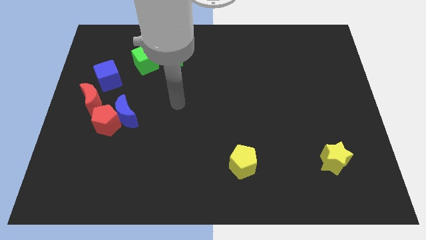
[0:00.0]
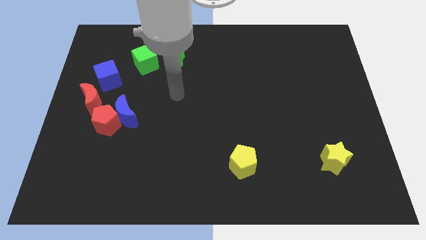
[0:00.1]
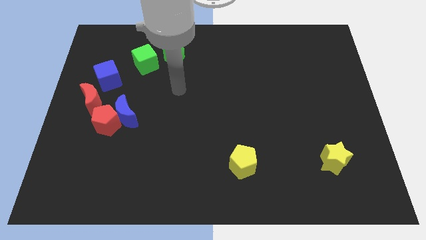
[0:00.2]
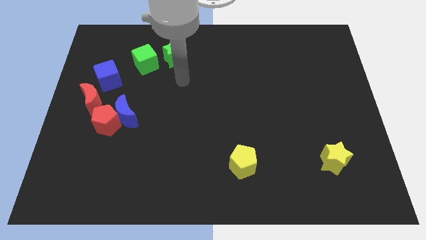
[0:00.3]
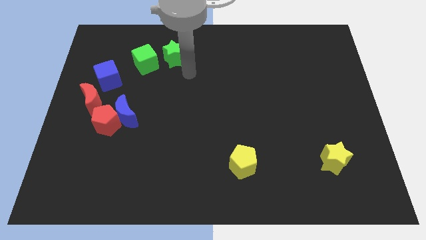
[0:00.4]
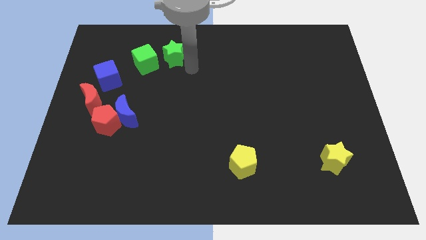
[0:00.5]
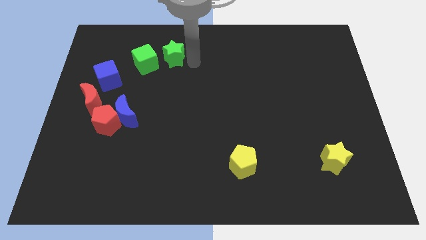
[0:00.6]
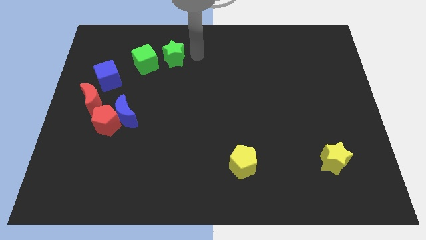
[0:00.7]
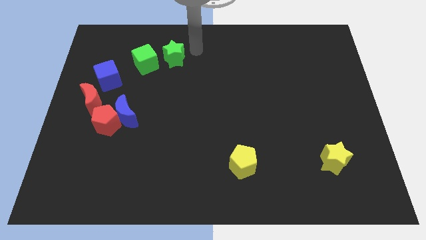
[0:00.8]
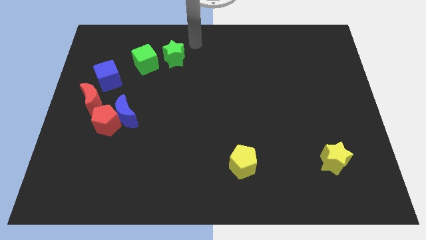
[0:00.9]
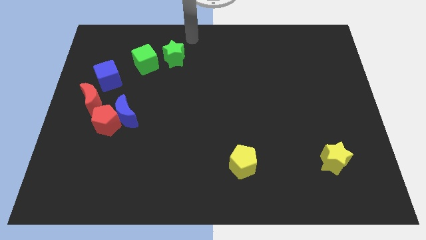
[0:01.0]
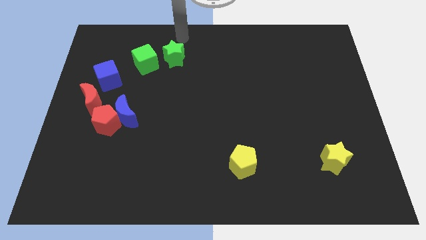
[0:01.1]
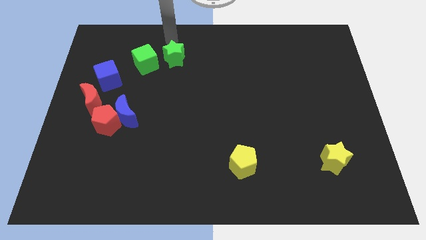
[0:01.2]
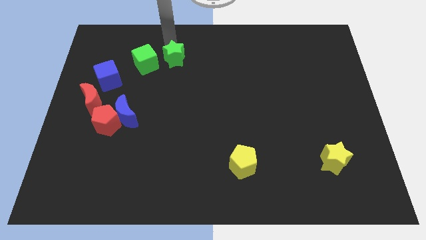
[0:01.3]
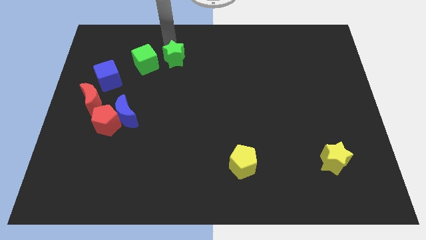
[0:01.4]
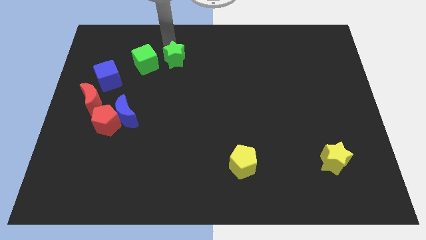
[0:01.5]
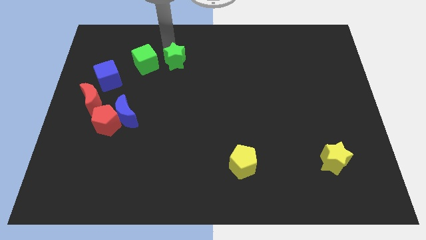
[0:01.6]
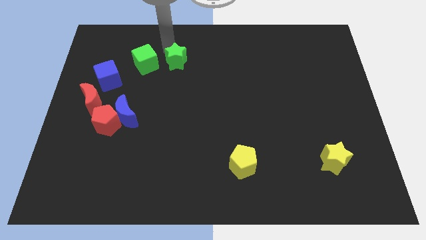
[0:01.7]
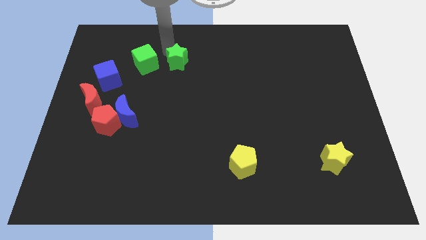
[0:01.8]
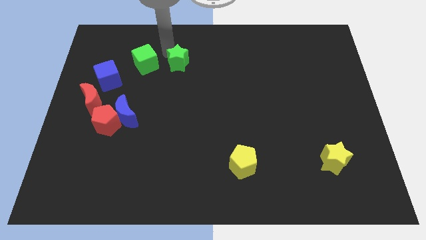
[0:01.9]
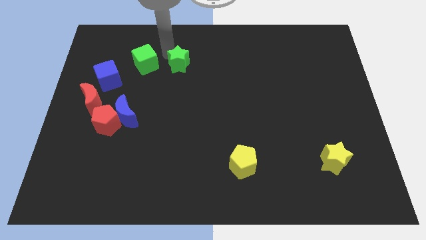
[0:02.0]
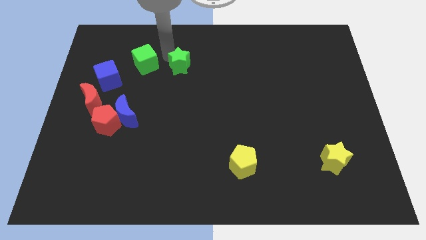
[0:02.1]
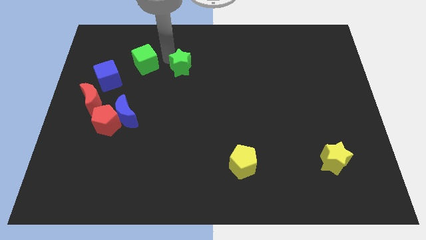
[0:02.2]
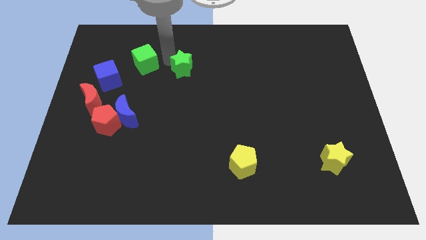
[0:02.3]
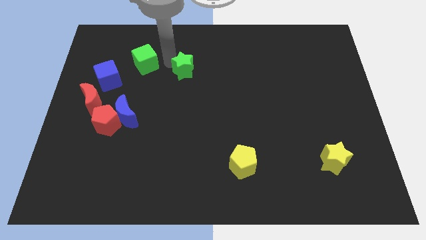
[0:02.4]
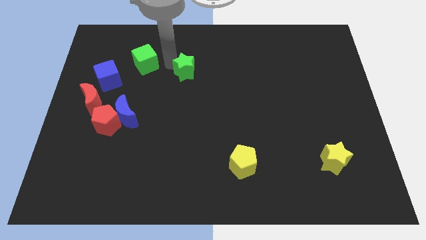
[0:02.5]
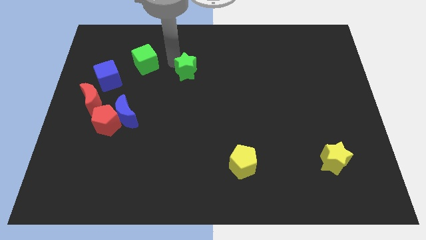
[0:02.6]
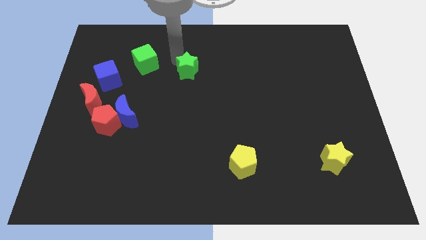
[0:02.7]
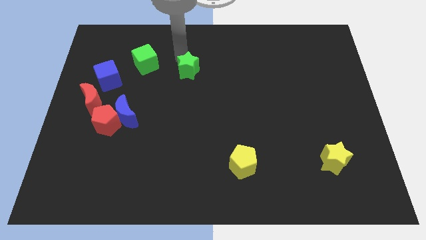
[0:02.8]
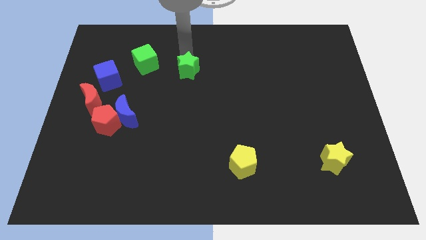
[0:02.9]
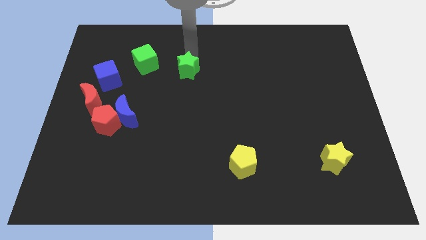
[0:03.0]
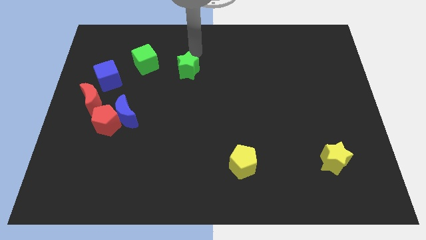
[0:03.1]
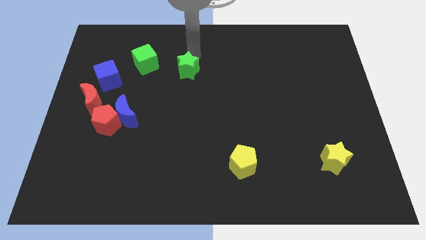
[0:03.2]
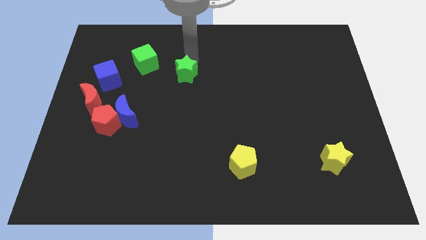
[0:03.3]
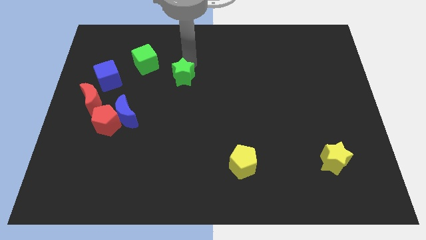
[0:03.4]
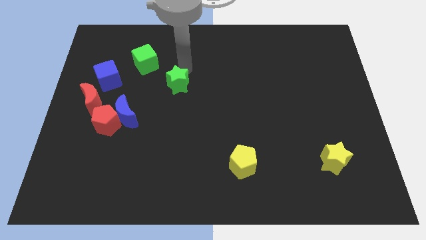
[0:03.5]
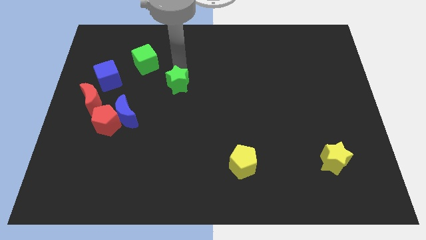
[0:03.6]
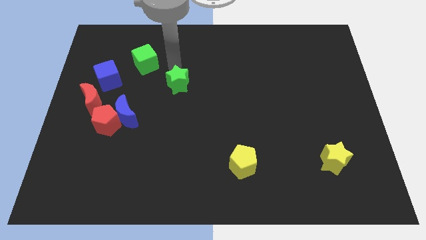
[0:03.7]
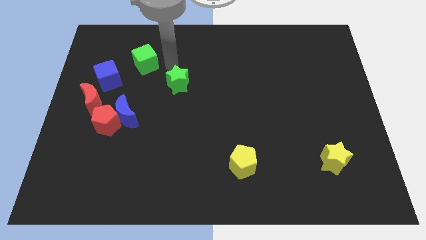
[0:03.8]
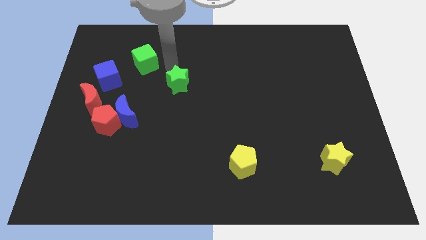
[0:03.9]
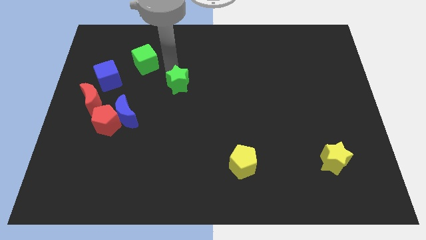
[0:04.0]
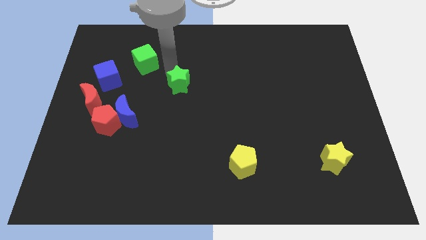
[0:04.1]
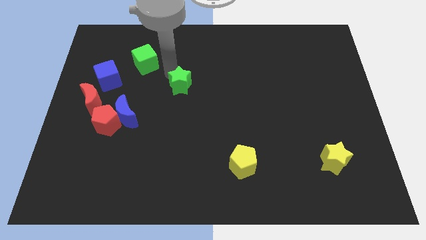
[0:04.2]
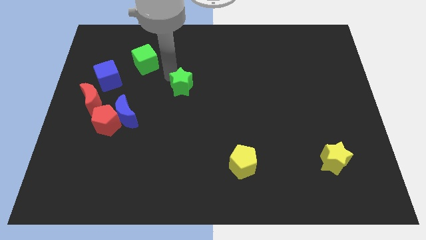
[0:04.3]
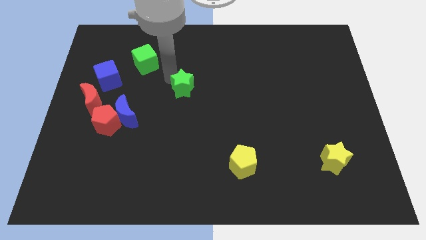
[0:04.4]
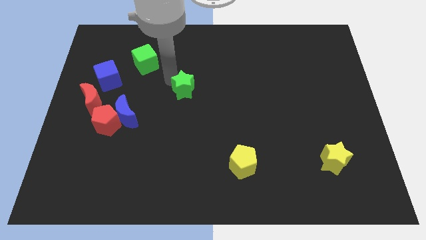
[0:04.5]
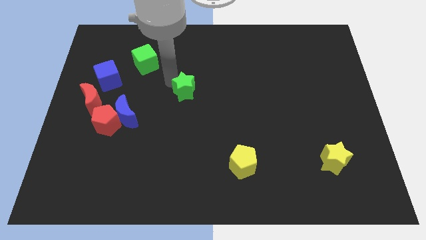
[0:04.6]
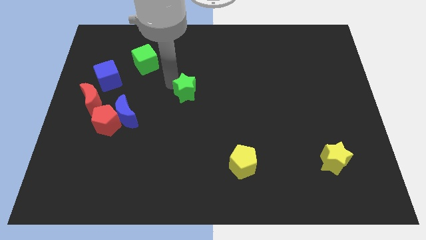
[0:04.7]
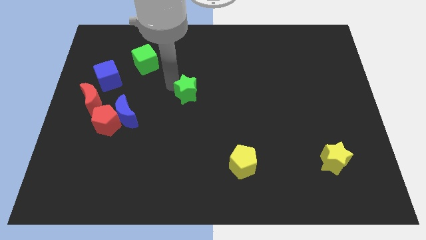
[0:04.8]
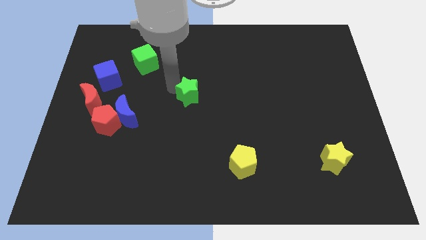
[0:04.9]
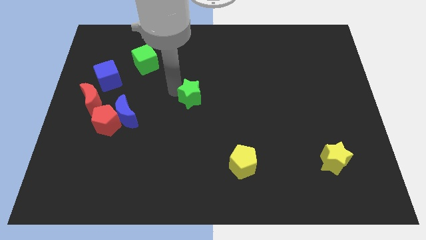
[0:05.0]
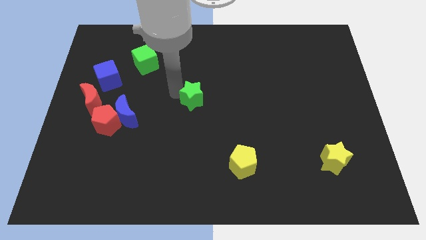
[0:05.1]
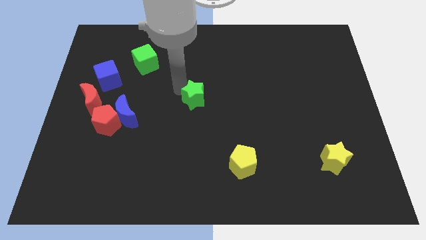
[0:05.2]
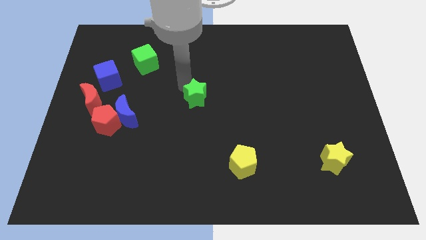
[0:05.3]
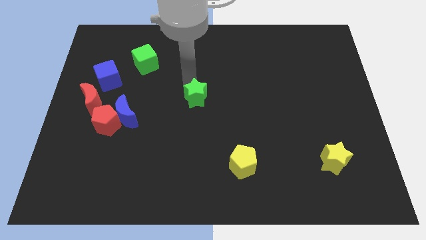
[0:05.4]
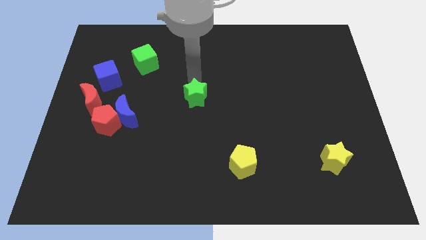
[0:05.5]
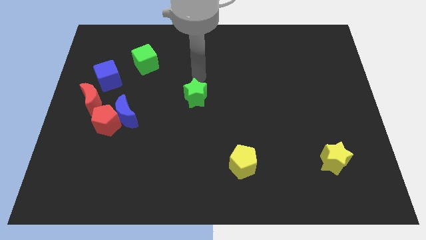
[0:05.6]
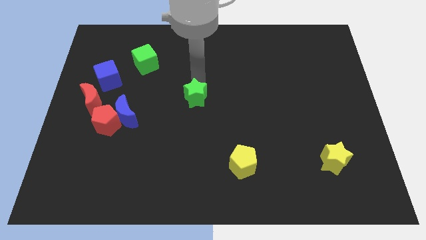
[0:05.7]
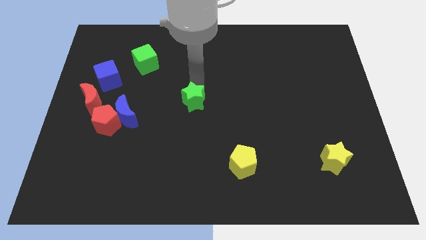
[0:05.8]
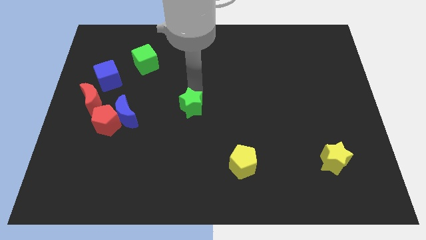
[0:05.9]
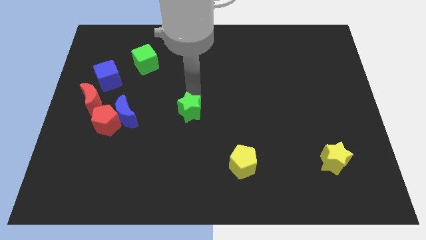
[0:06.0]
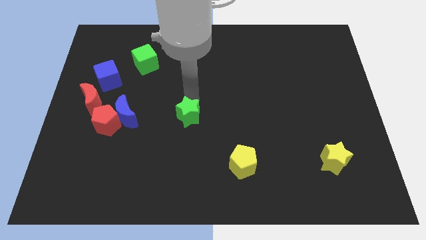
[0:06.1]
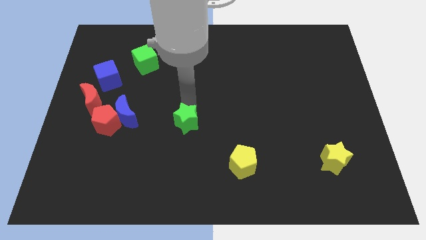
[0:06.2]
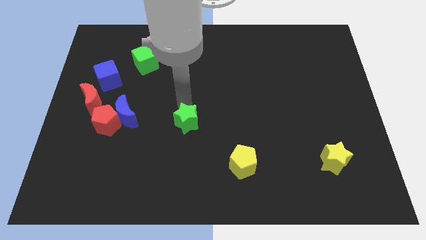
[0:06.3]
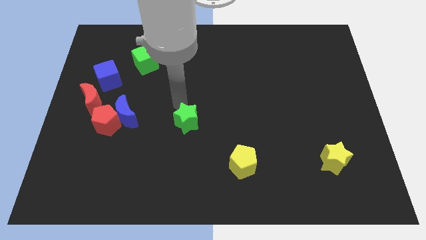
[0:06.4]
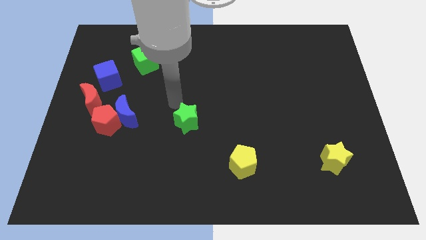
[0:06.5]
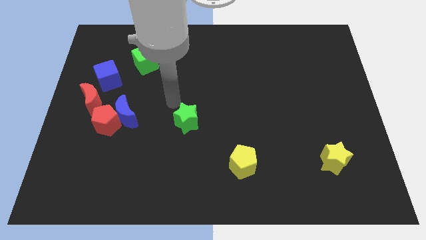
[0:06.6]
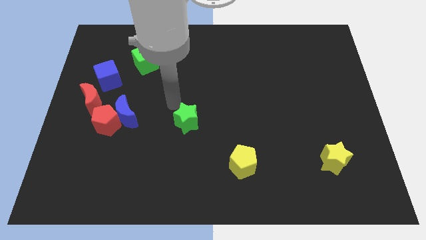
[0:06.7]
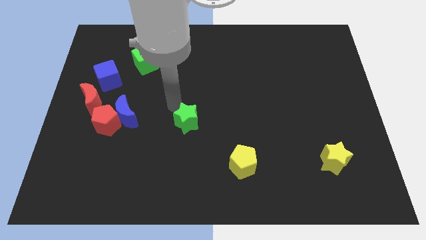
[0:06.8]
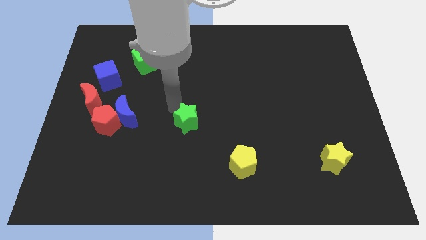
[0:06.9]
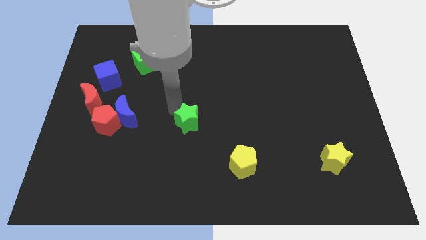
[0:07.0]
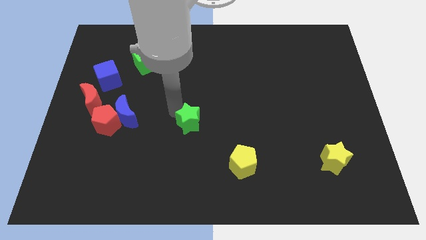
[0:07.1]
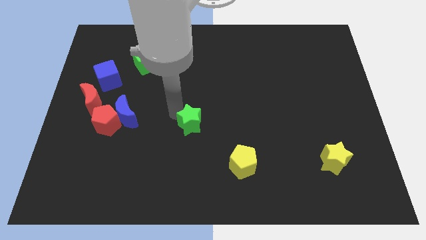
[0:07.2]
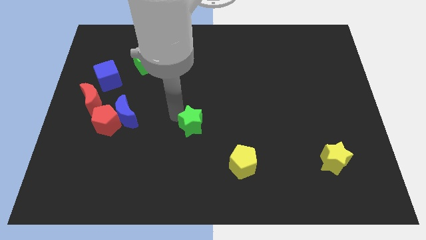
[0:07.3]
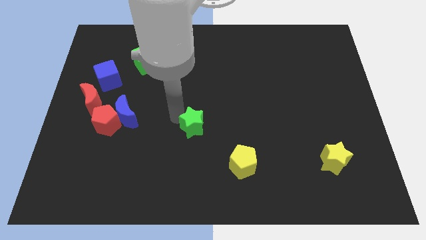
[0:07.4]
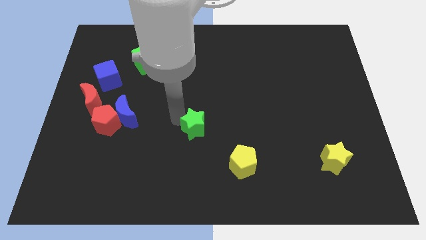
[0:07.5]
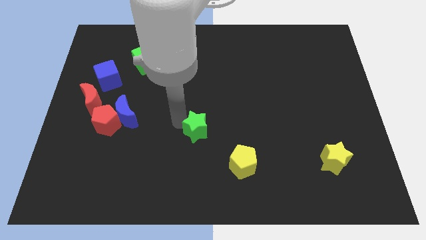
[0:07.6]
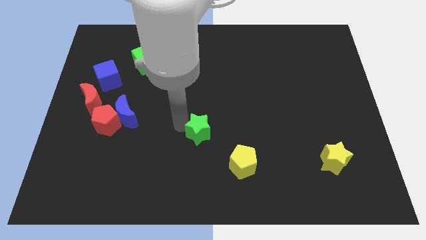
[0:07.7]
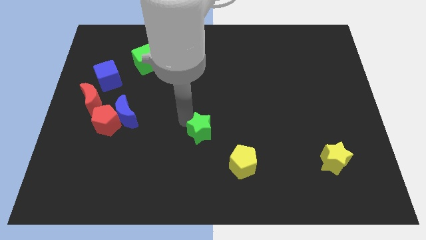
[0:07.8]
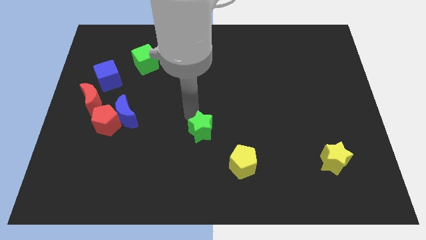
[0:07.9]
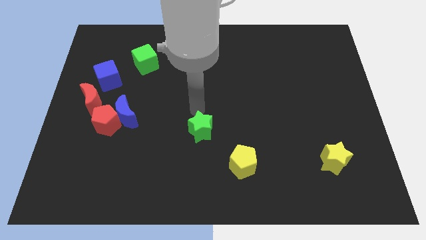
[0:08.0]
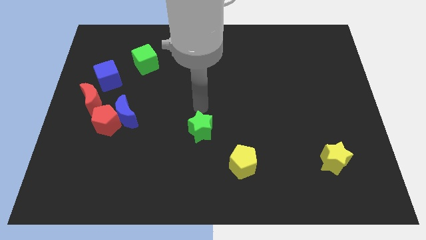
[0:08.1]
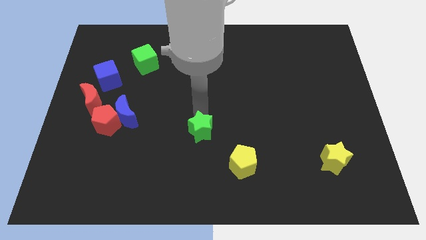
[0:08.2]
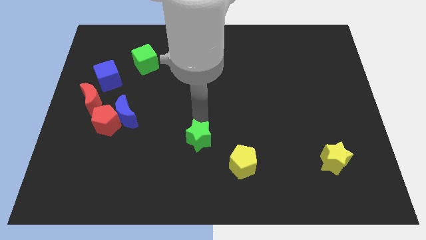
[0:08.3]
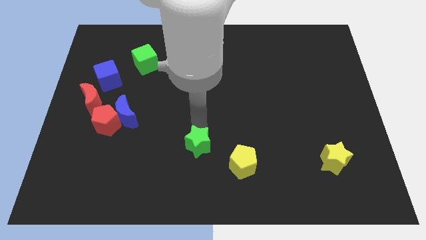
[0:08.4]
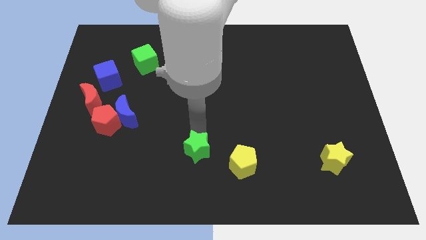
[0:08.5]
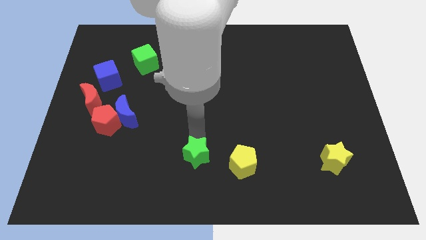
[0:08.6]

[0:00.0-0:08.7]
push the green star to the bottom side
